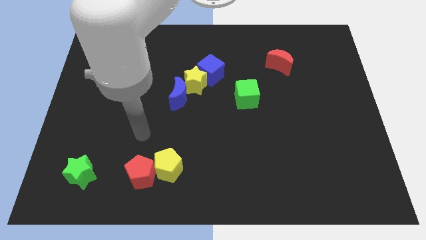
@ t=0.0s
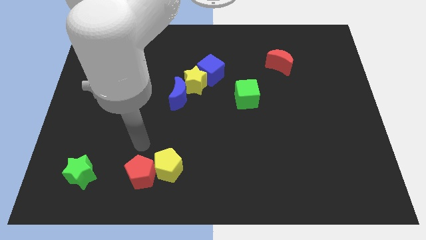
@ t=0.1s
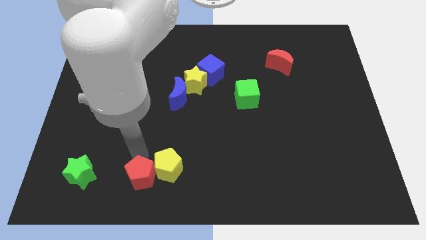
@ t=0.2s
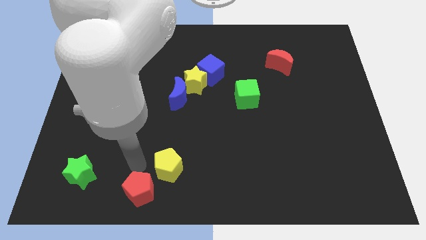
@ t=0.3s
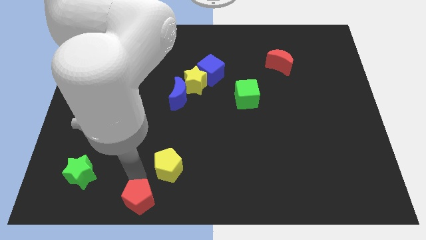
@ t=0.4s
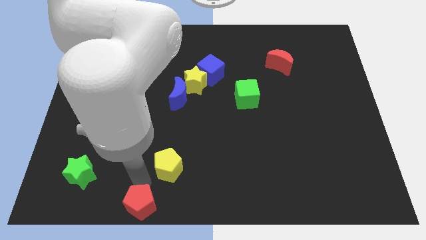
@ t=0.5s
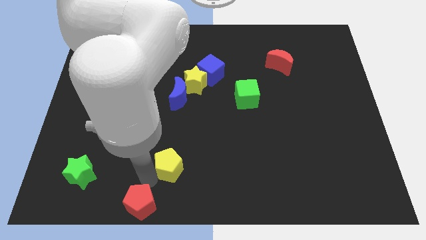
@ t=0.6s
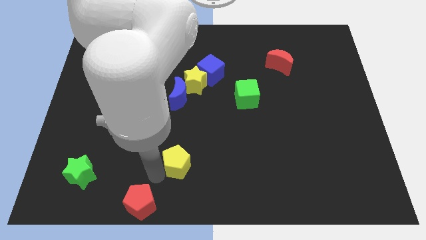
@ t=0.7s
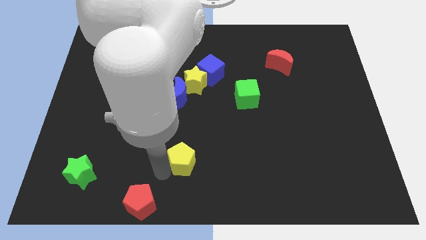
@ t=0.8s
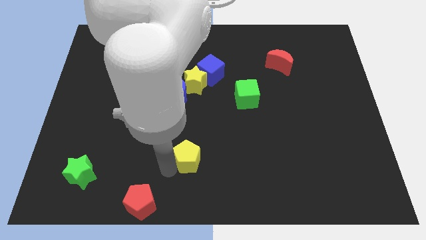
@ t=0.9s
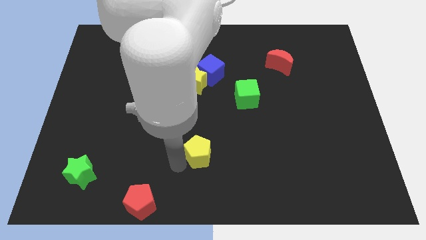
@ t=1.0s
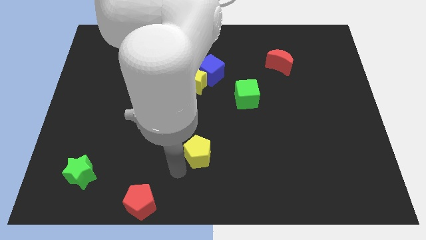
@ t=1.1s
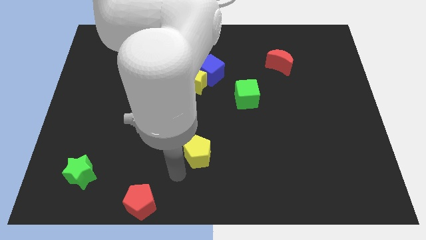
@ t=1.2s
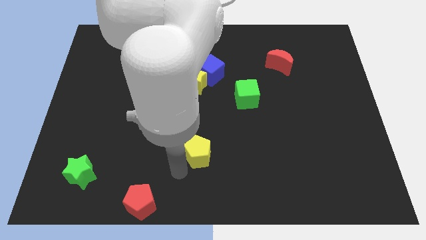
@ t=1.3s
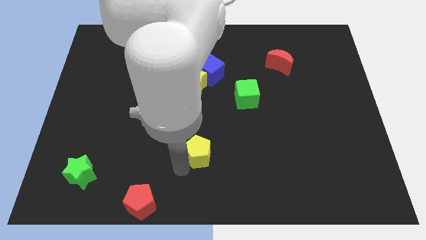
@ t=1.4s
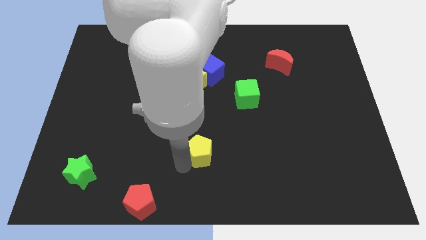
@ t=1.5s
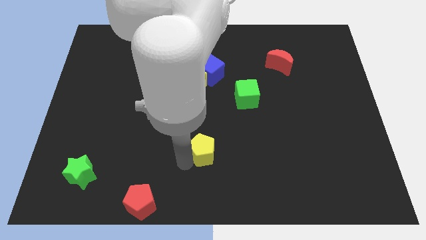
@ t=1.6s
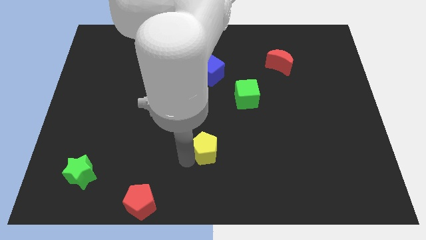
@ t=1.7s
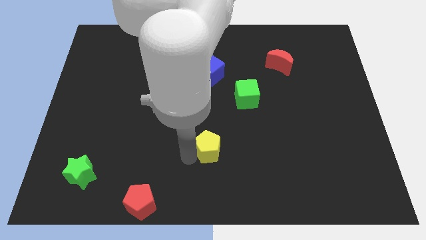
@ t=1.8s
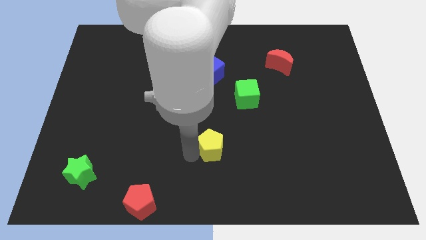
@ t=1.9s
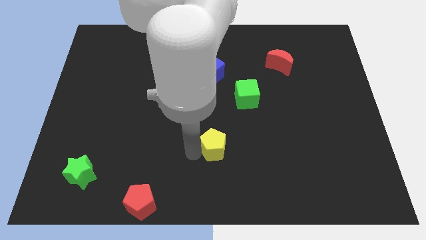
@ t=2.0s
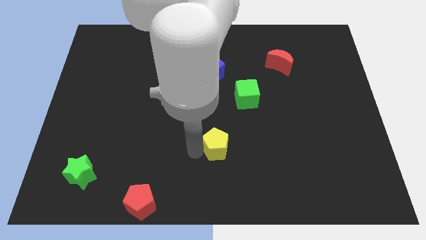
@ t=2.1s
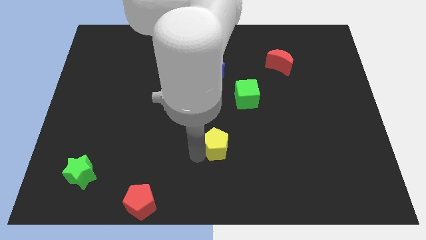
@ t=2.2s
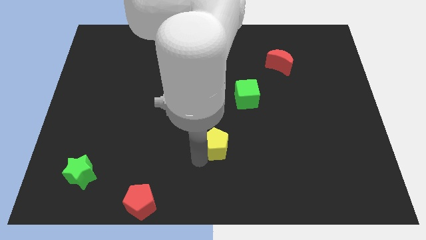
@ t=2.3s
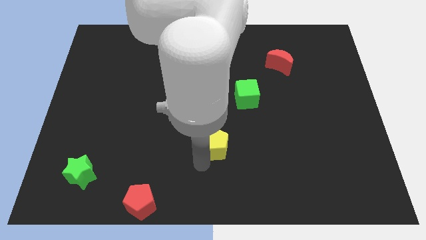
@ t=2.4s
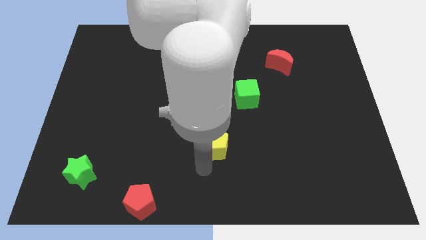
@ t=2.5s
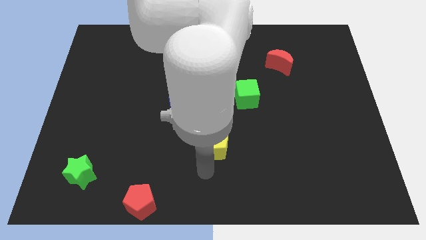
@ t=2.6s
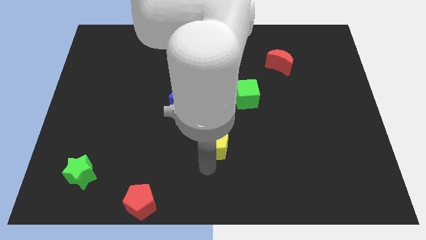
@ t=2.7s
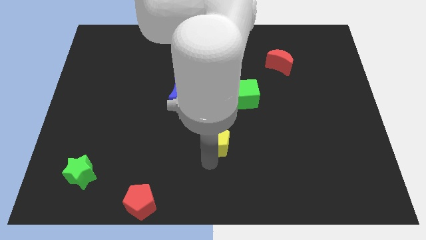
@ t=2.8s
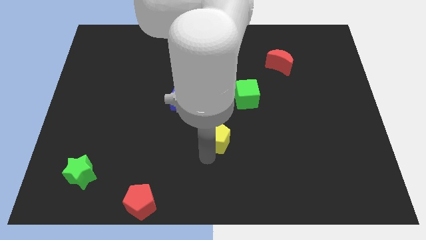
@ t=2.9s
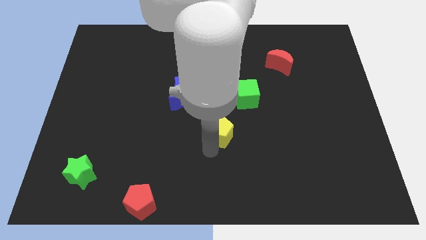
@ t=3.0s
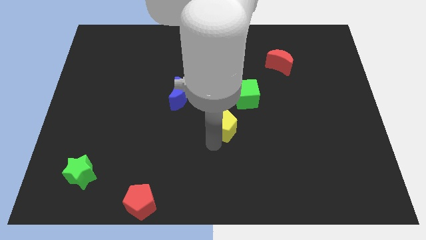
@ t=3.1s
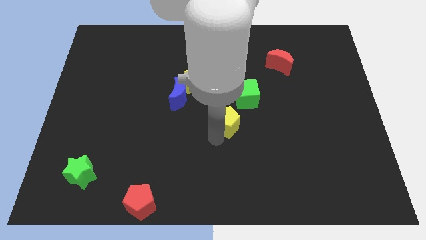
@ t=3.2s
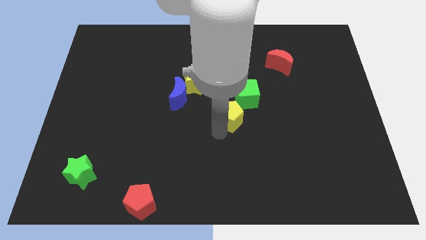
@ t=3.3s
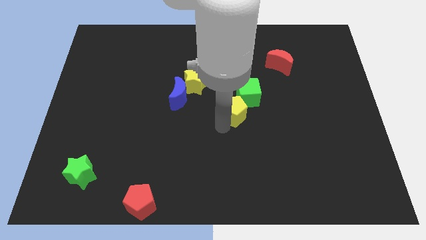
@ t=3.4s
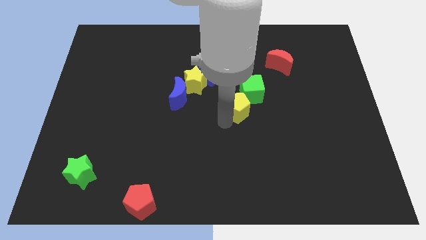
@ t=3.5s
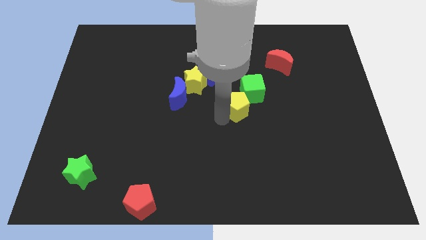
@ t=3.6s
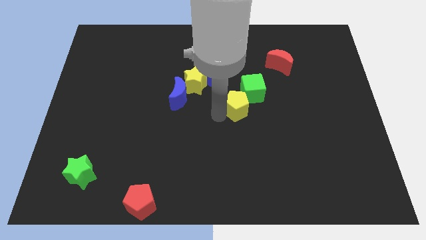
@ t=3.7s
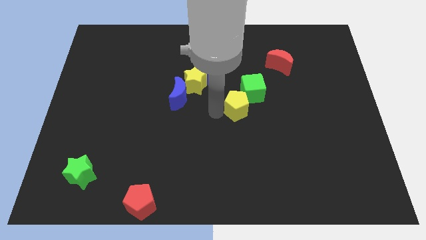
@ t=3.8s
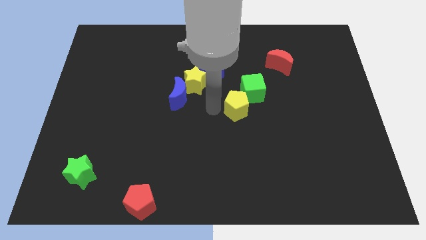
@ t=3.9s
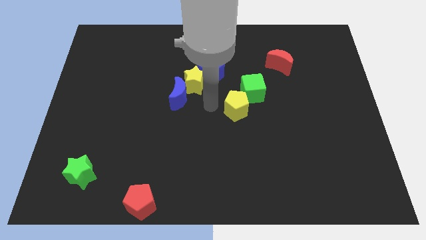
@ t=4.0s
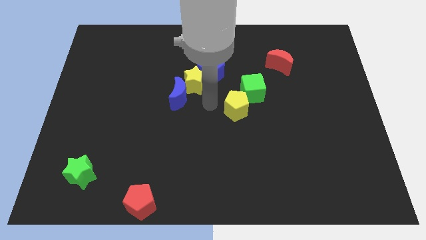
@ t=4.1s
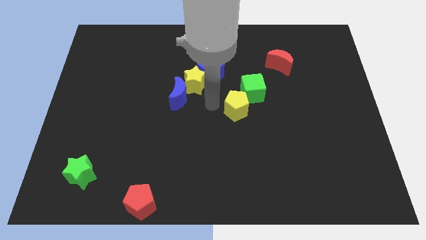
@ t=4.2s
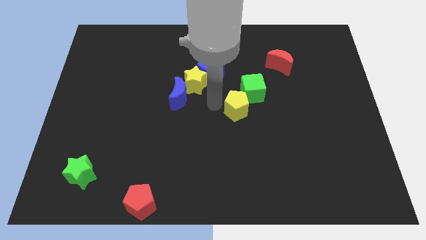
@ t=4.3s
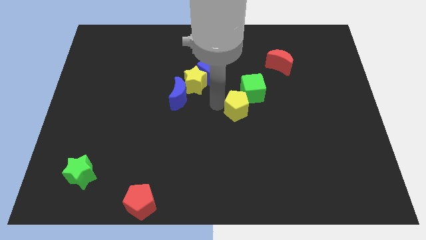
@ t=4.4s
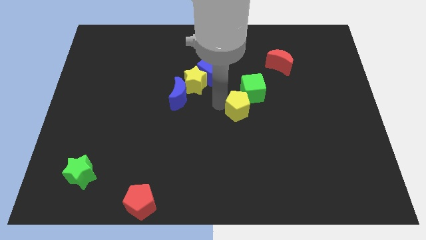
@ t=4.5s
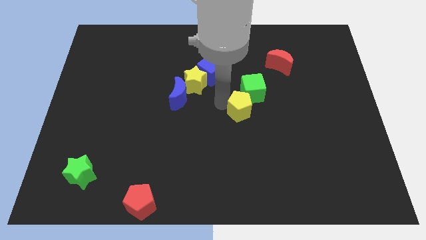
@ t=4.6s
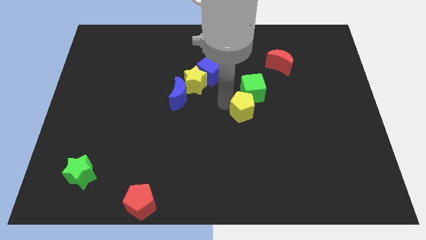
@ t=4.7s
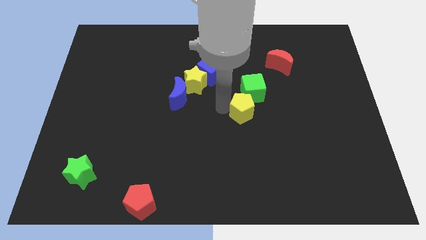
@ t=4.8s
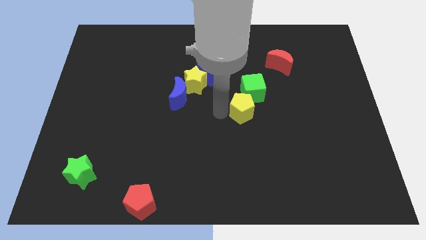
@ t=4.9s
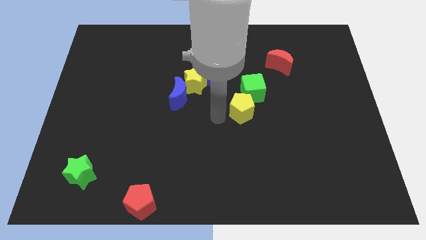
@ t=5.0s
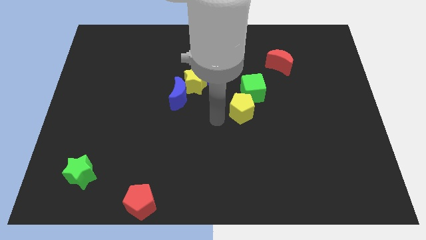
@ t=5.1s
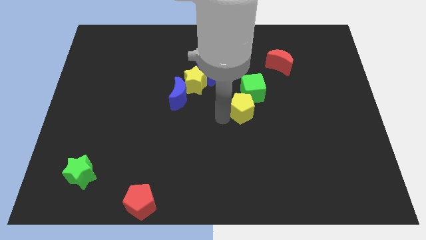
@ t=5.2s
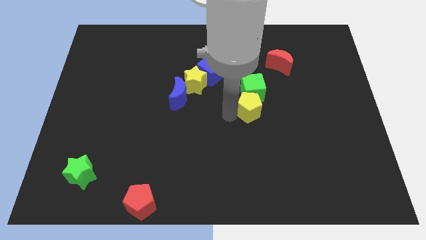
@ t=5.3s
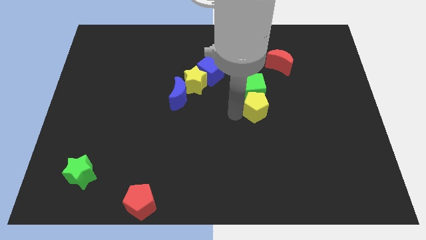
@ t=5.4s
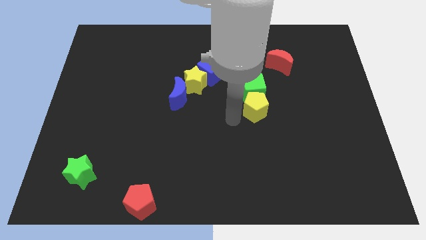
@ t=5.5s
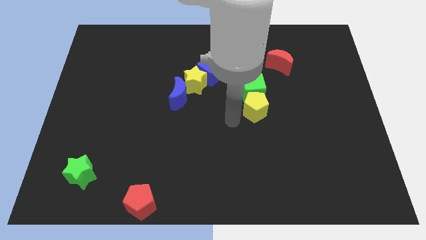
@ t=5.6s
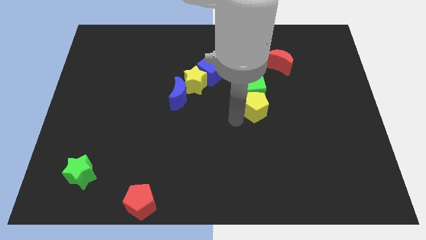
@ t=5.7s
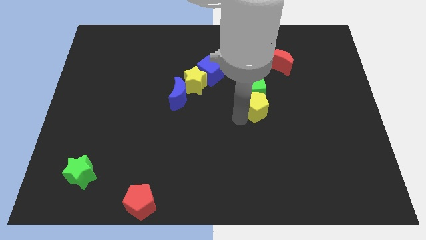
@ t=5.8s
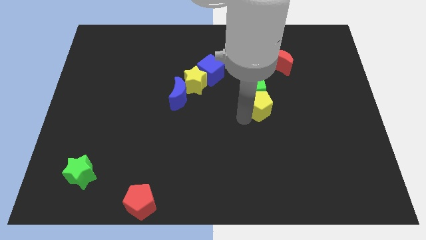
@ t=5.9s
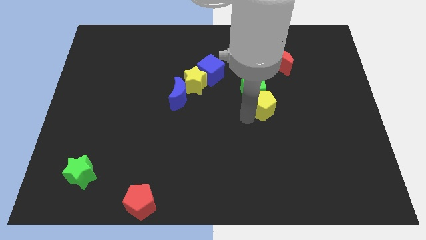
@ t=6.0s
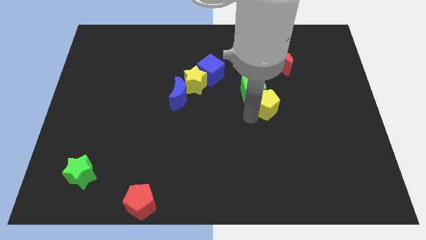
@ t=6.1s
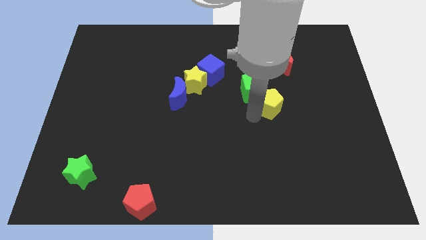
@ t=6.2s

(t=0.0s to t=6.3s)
push the yellow pentagon to the bottom side of the red moon

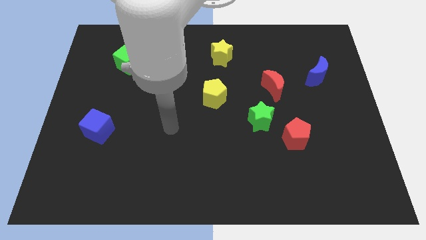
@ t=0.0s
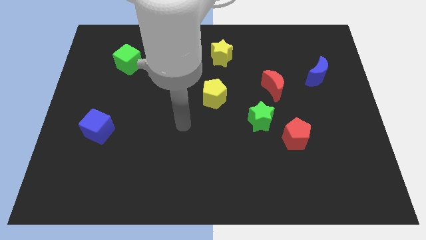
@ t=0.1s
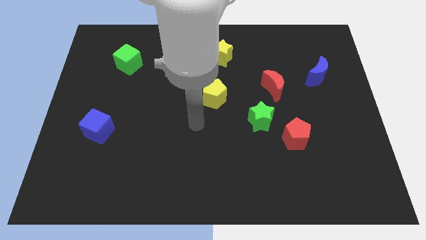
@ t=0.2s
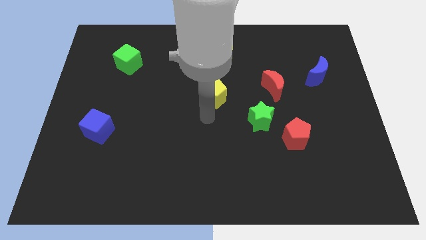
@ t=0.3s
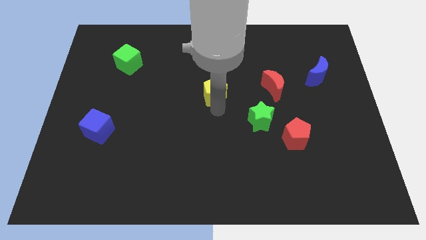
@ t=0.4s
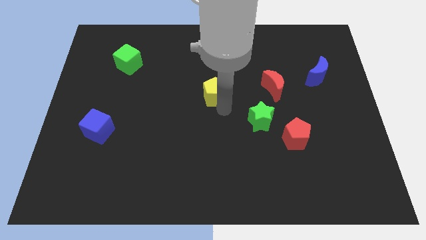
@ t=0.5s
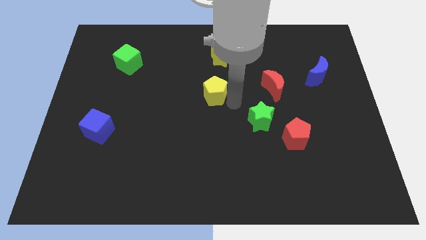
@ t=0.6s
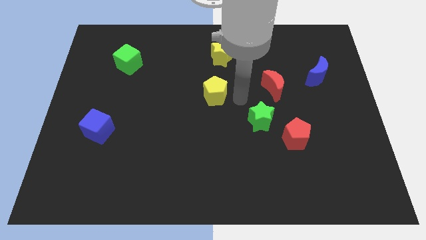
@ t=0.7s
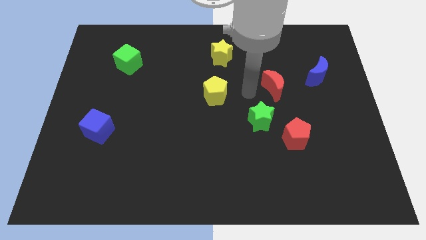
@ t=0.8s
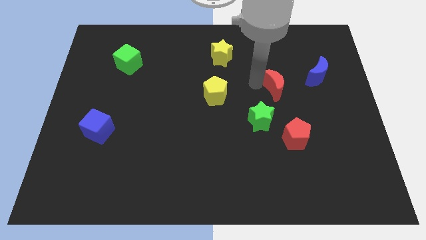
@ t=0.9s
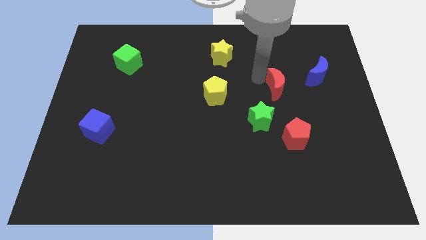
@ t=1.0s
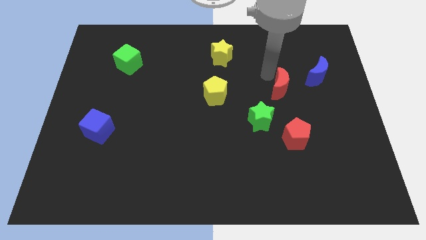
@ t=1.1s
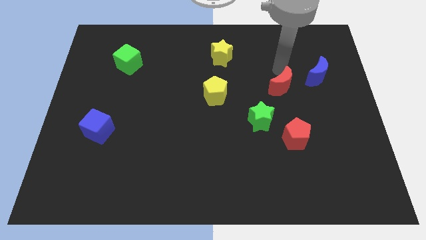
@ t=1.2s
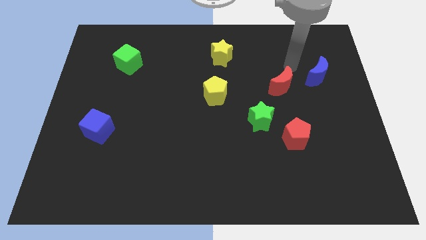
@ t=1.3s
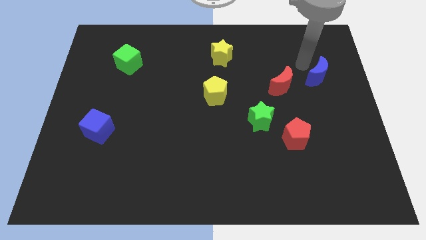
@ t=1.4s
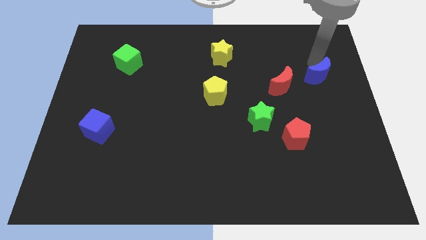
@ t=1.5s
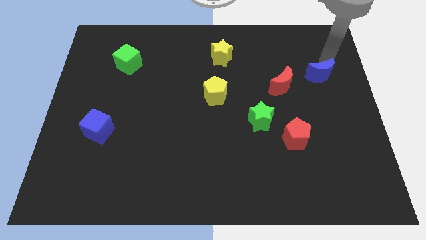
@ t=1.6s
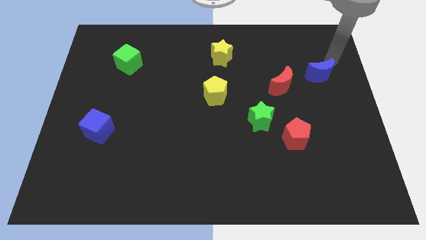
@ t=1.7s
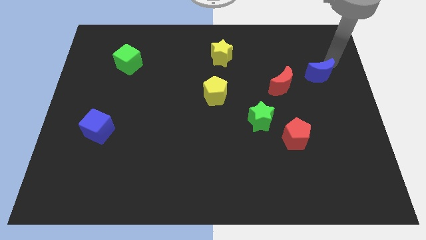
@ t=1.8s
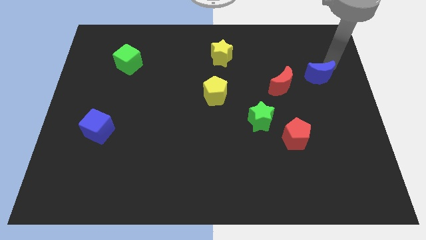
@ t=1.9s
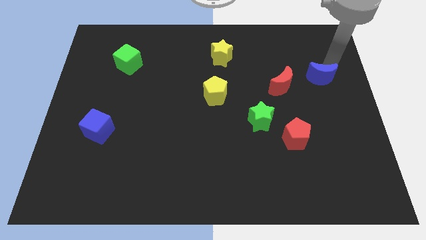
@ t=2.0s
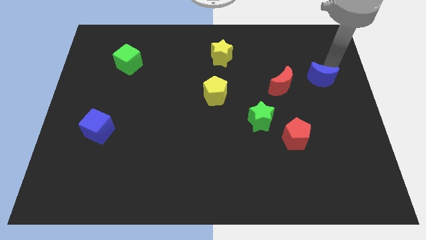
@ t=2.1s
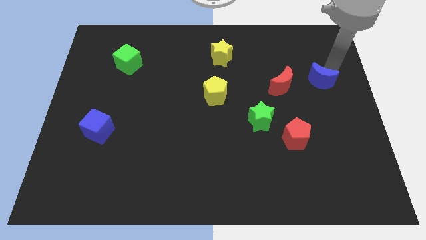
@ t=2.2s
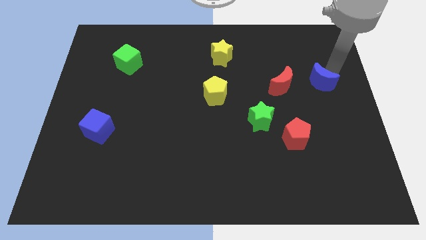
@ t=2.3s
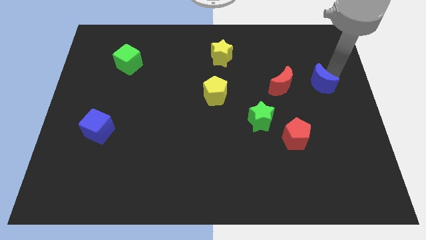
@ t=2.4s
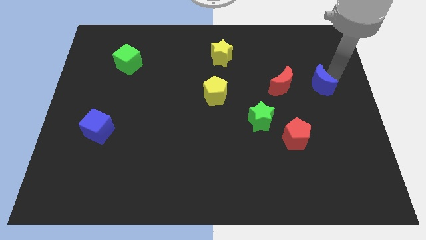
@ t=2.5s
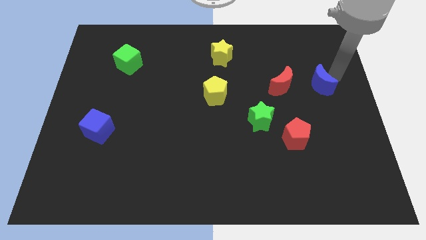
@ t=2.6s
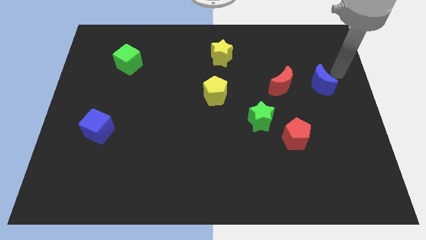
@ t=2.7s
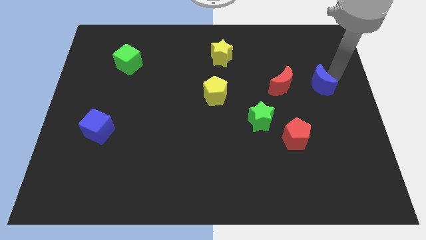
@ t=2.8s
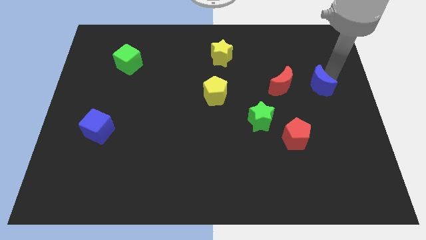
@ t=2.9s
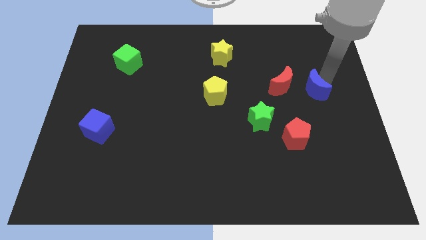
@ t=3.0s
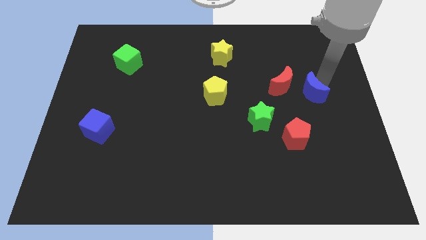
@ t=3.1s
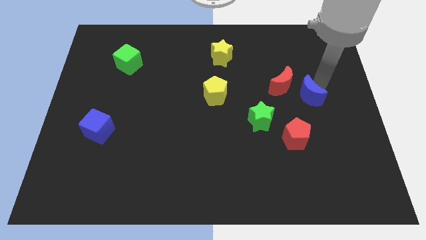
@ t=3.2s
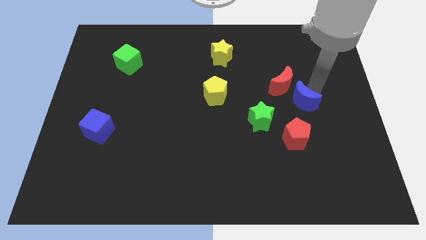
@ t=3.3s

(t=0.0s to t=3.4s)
put the blue moon to the bottom of the red moon
